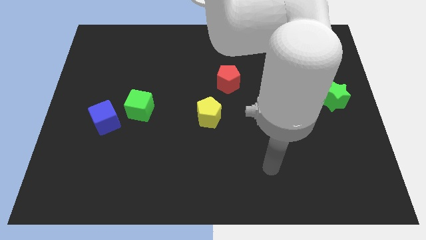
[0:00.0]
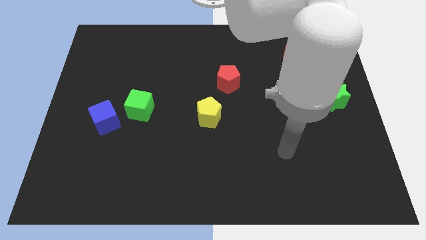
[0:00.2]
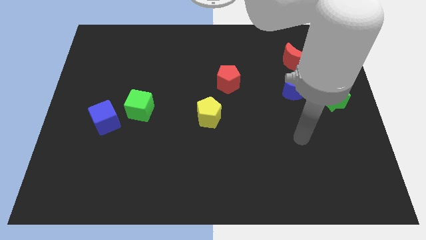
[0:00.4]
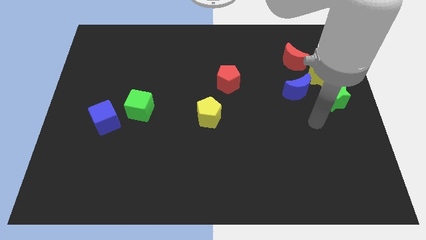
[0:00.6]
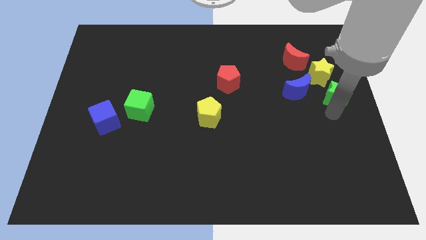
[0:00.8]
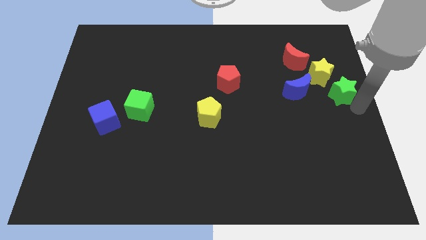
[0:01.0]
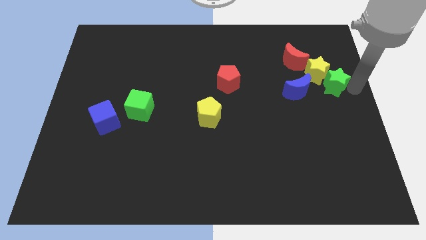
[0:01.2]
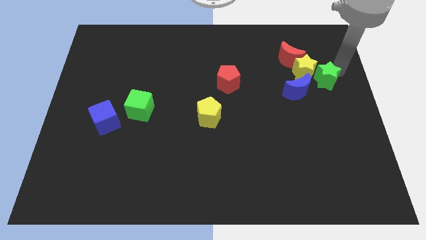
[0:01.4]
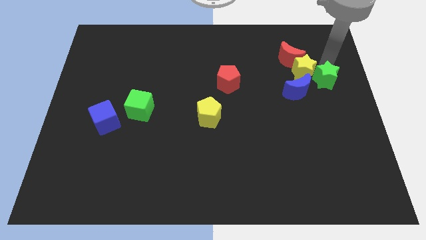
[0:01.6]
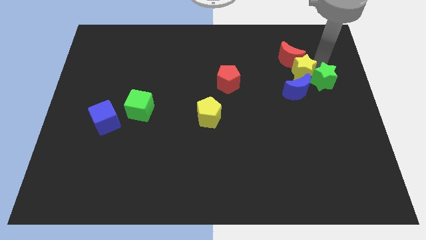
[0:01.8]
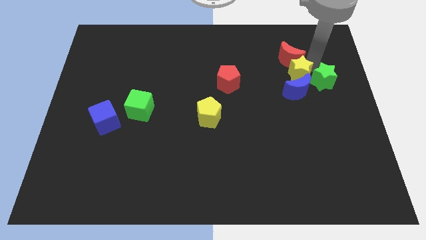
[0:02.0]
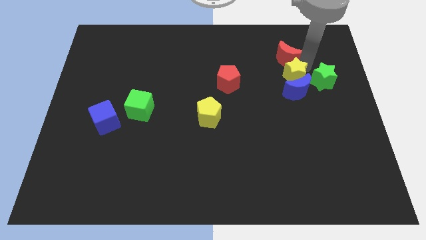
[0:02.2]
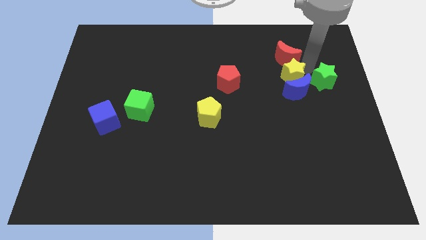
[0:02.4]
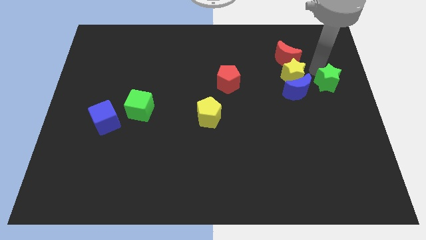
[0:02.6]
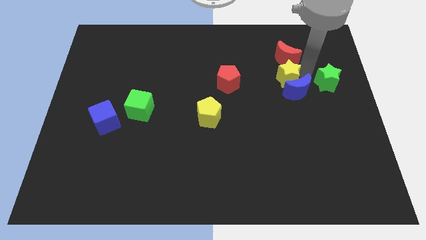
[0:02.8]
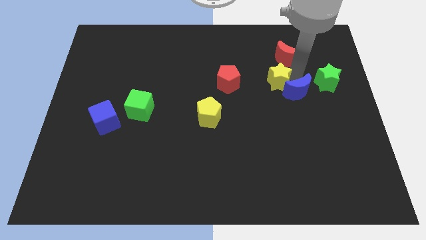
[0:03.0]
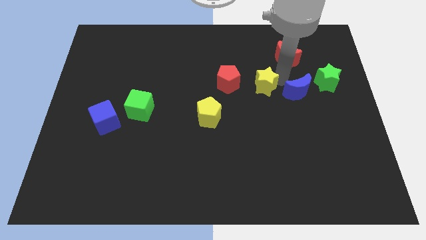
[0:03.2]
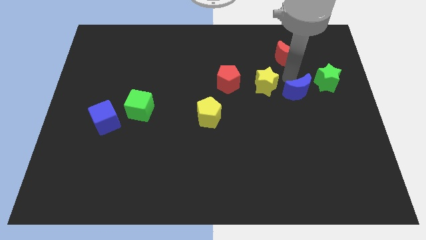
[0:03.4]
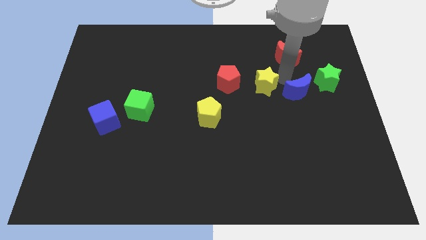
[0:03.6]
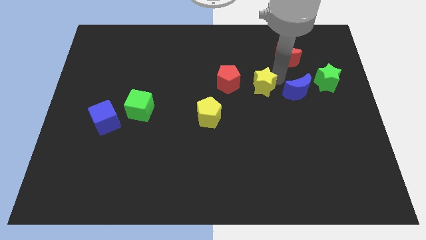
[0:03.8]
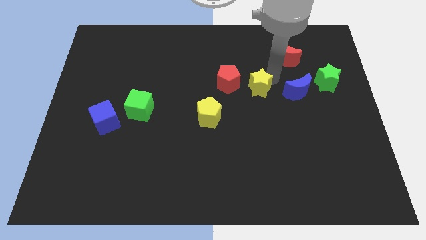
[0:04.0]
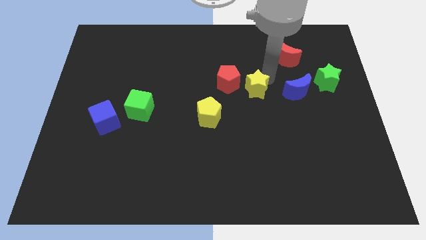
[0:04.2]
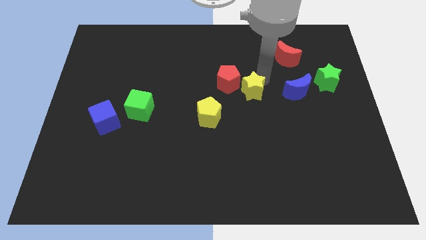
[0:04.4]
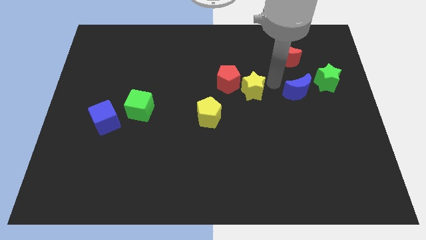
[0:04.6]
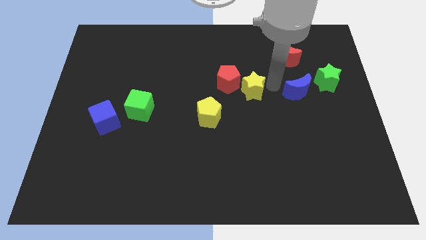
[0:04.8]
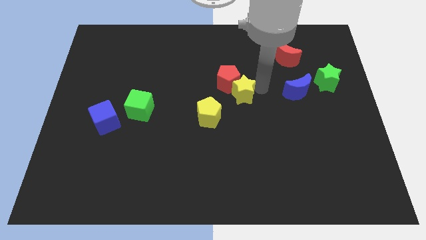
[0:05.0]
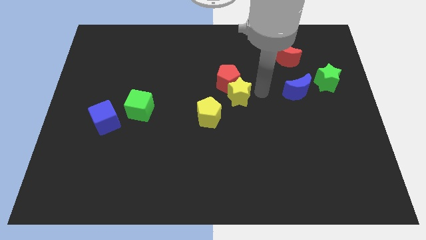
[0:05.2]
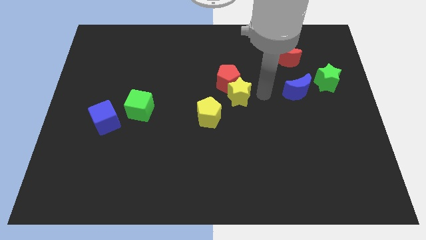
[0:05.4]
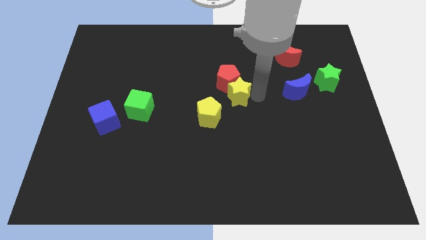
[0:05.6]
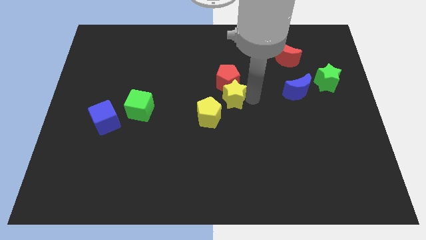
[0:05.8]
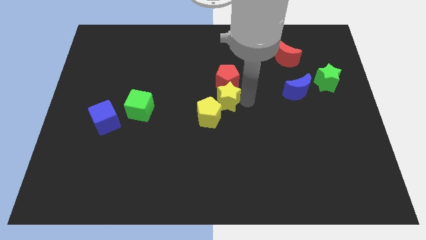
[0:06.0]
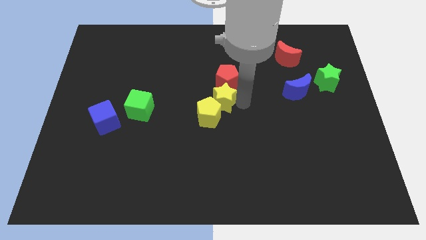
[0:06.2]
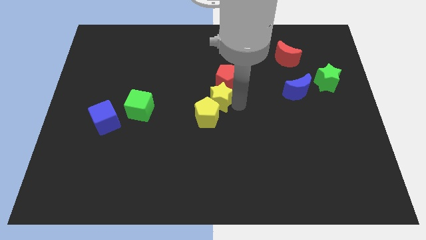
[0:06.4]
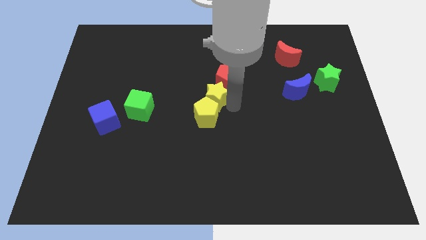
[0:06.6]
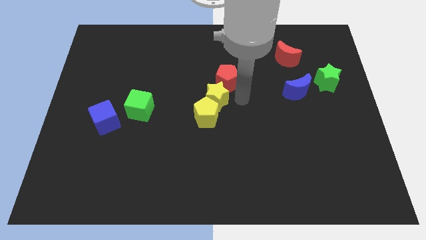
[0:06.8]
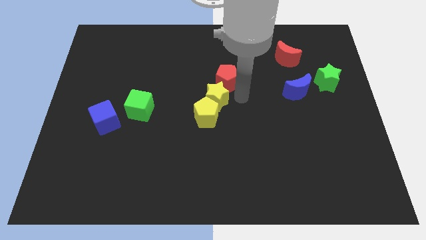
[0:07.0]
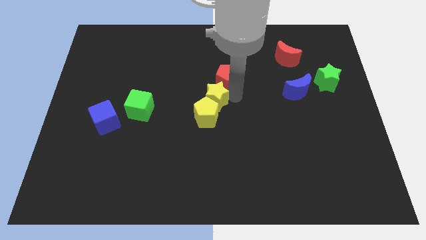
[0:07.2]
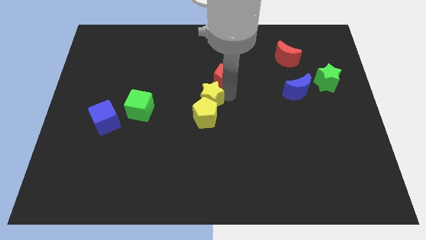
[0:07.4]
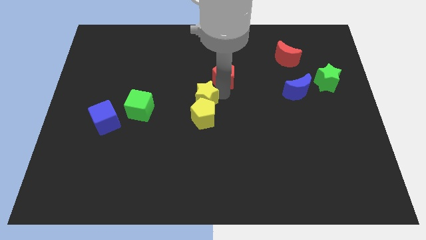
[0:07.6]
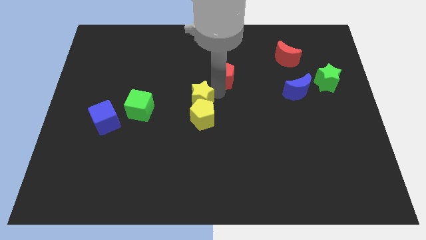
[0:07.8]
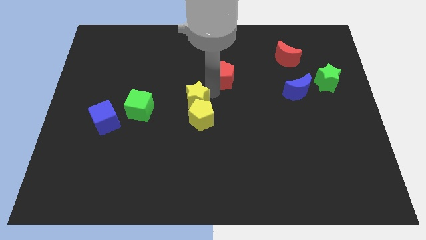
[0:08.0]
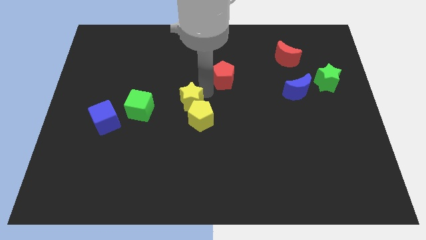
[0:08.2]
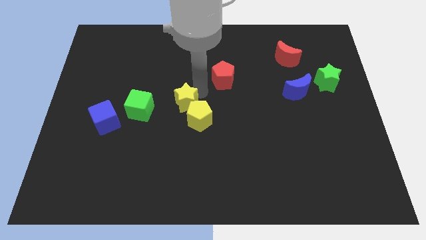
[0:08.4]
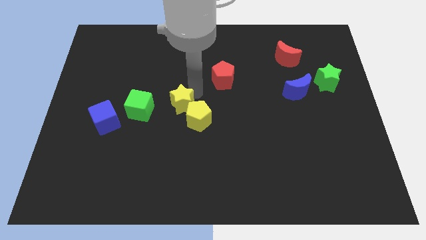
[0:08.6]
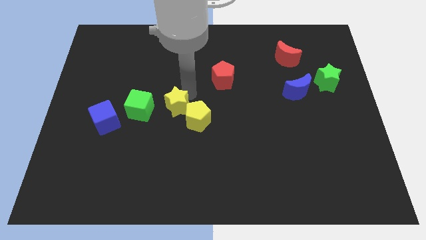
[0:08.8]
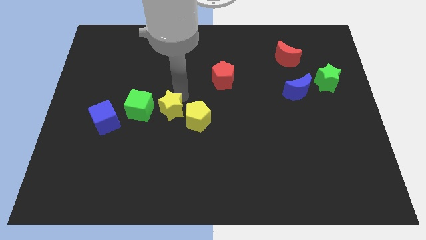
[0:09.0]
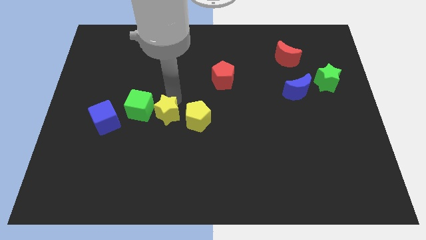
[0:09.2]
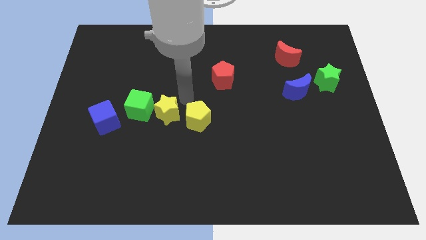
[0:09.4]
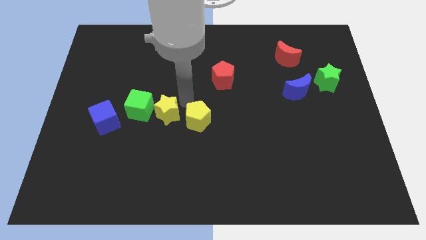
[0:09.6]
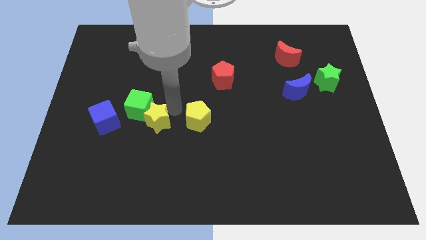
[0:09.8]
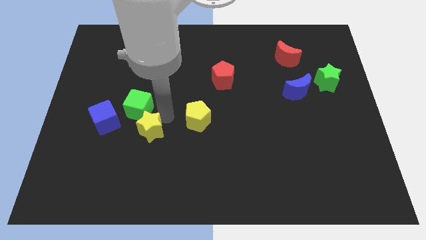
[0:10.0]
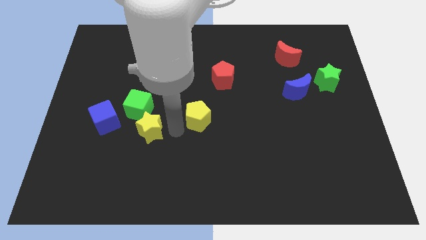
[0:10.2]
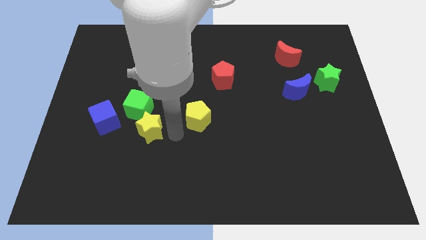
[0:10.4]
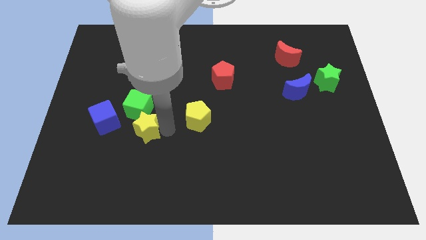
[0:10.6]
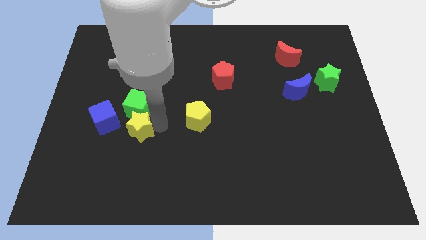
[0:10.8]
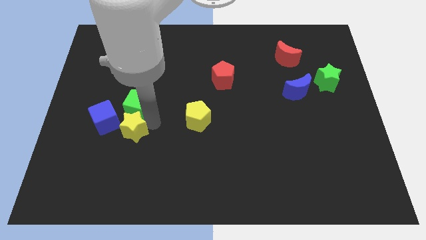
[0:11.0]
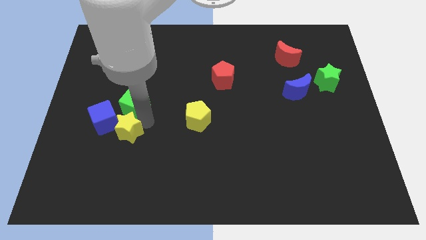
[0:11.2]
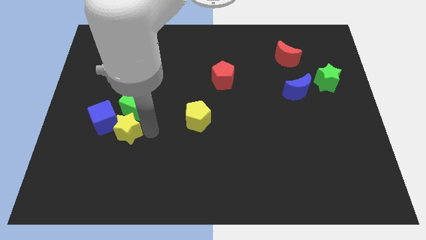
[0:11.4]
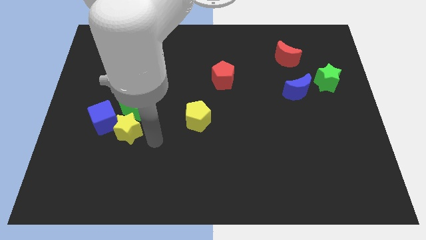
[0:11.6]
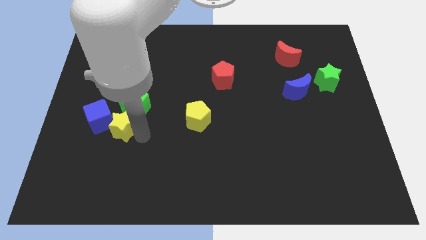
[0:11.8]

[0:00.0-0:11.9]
slide the yellow star close to the blue cube

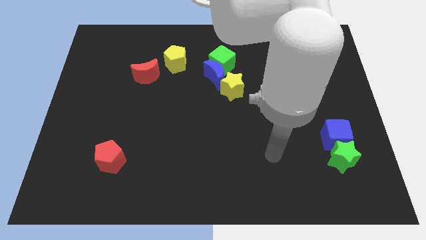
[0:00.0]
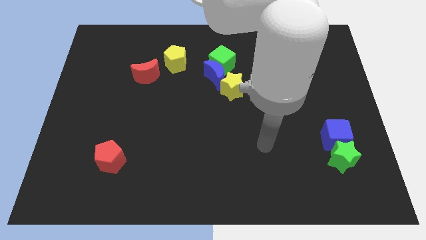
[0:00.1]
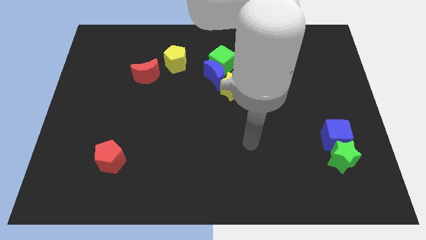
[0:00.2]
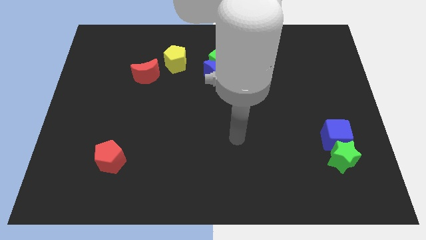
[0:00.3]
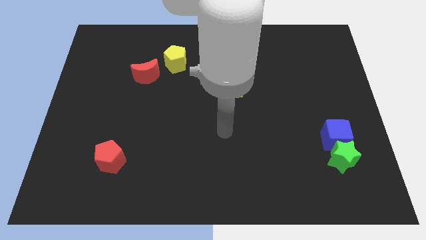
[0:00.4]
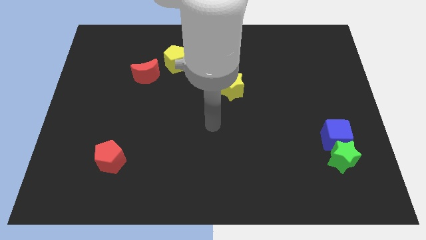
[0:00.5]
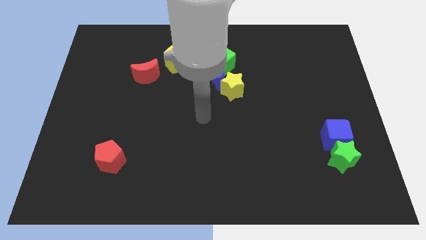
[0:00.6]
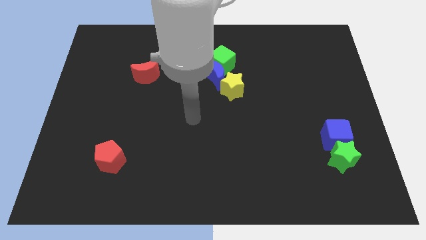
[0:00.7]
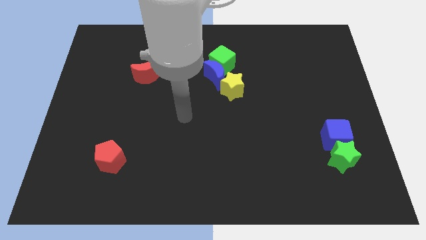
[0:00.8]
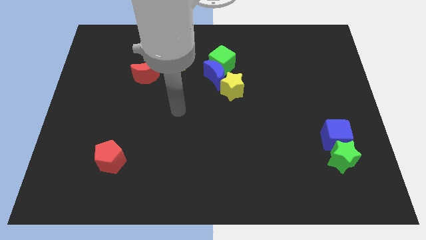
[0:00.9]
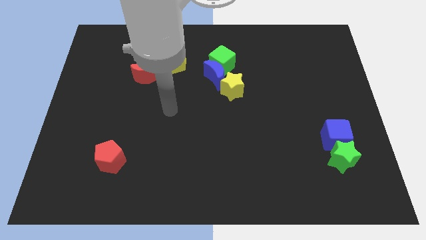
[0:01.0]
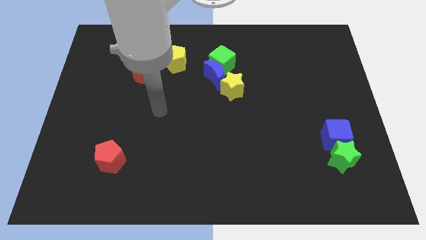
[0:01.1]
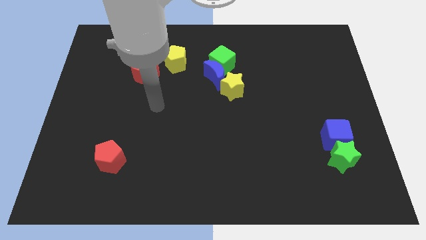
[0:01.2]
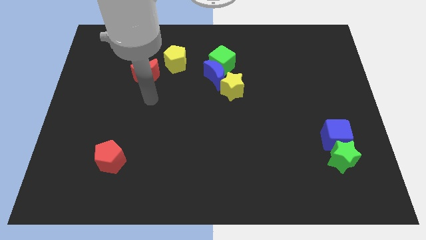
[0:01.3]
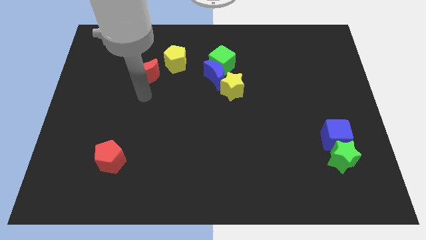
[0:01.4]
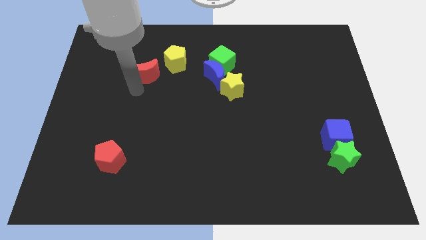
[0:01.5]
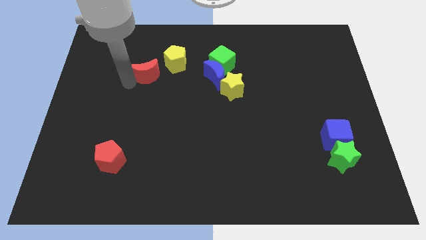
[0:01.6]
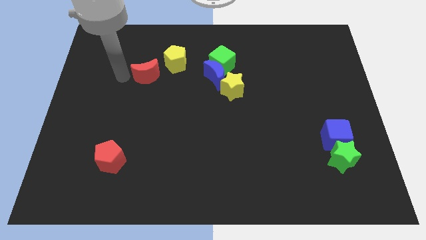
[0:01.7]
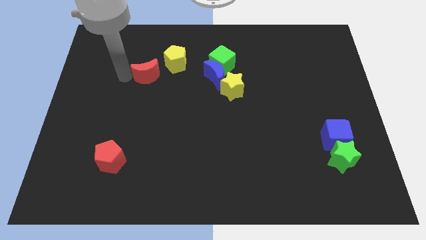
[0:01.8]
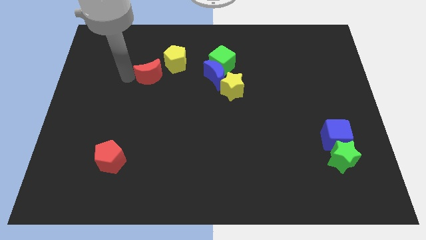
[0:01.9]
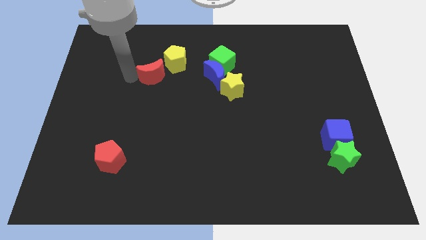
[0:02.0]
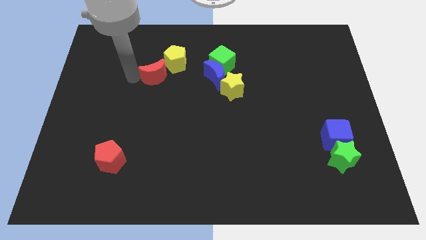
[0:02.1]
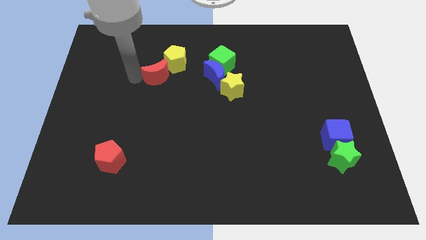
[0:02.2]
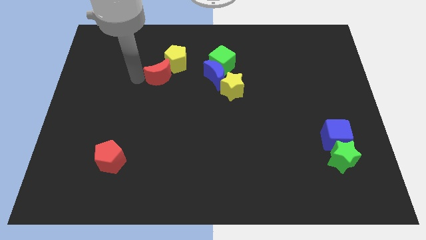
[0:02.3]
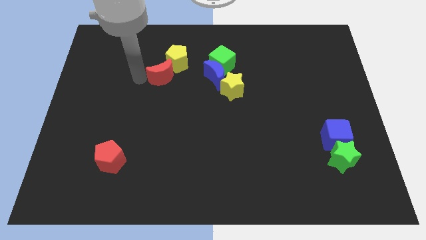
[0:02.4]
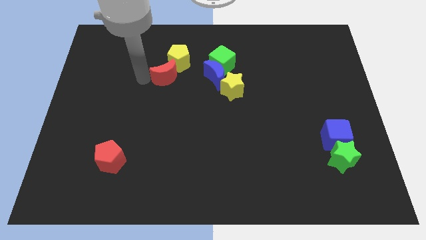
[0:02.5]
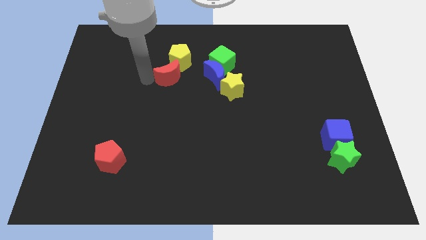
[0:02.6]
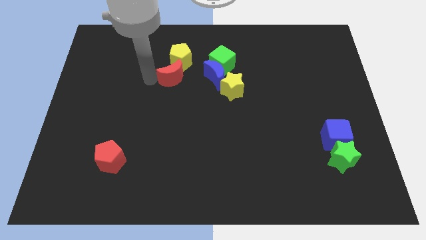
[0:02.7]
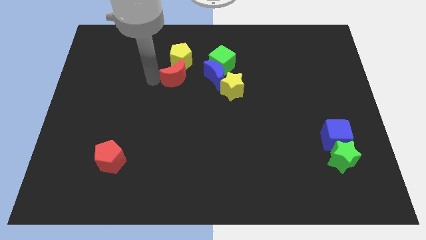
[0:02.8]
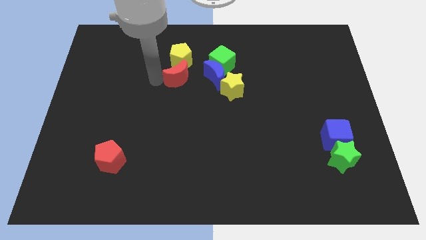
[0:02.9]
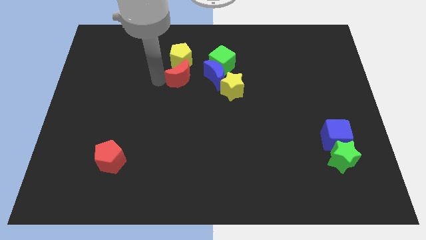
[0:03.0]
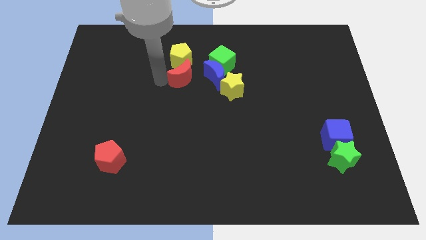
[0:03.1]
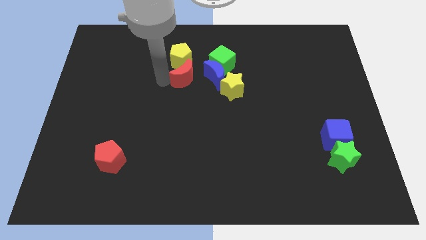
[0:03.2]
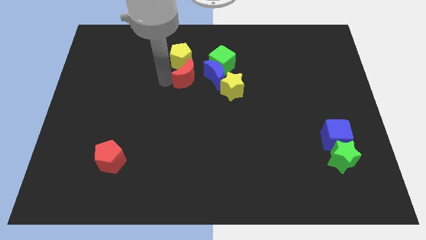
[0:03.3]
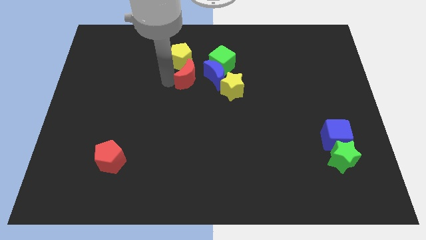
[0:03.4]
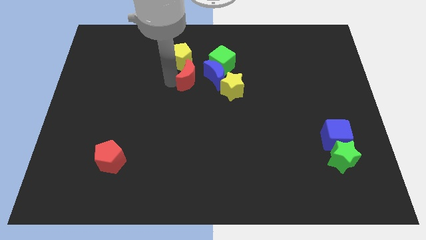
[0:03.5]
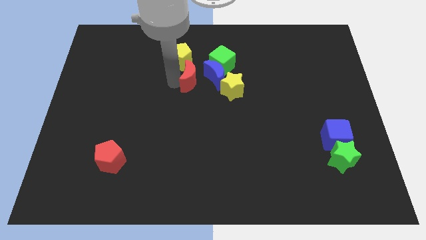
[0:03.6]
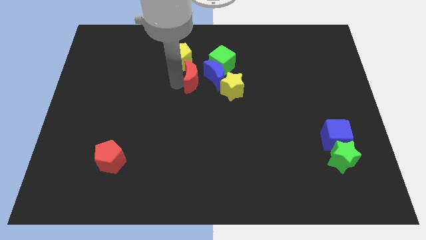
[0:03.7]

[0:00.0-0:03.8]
slide the red moon towards the blue moon
